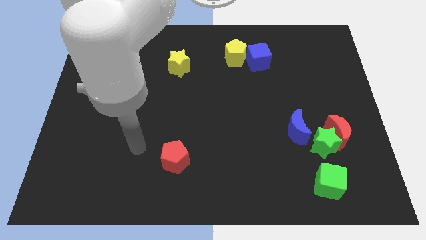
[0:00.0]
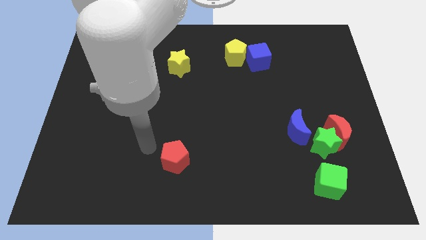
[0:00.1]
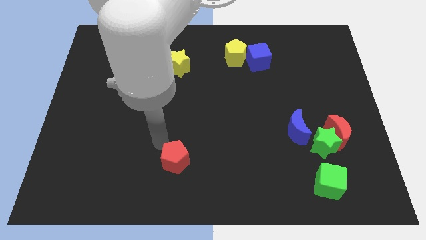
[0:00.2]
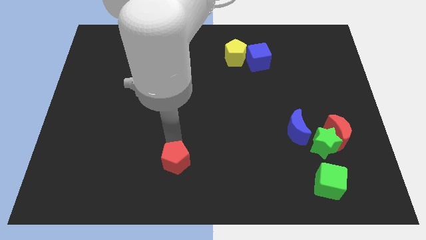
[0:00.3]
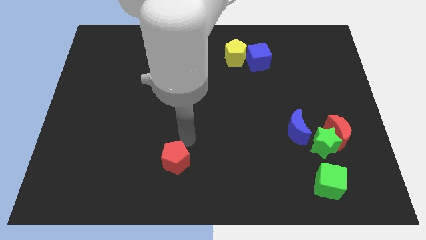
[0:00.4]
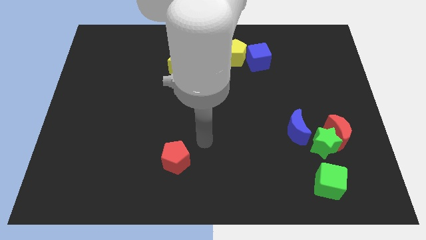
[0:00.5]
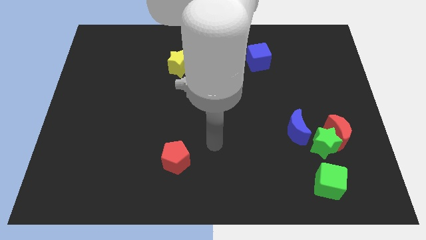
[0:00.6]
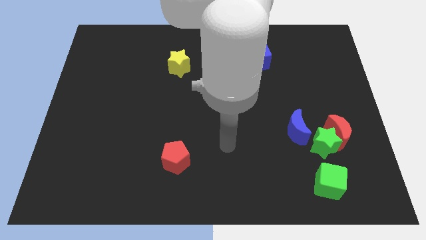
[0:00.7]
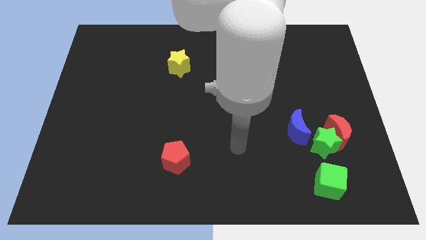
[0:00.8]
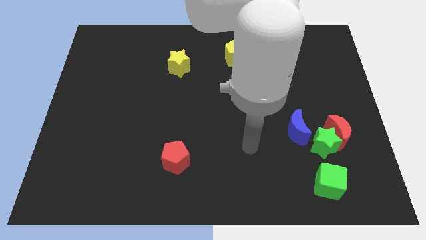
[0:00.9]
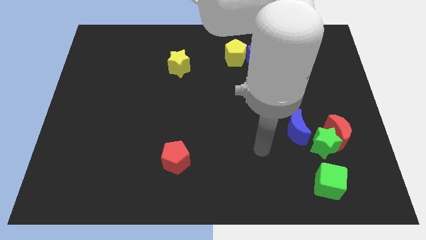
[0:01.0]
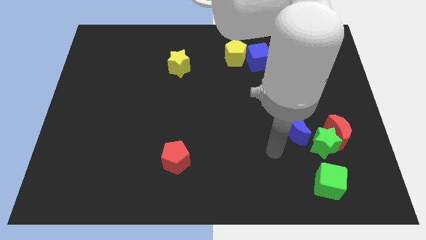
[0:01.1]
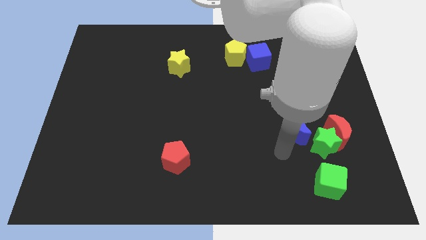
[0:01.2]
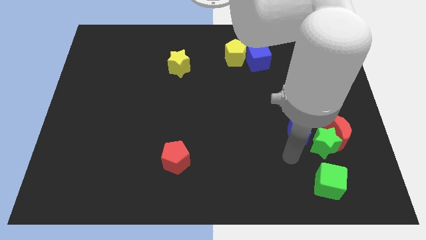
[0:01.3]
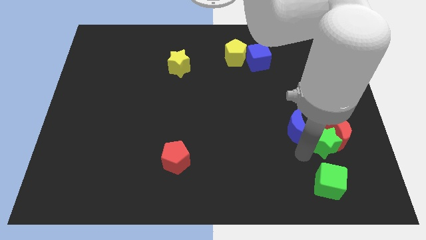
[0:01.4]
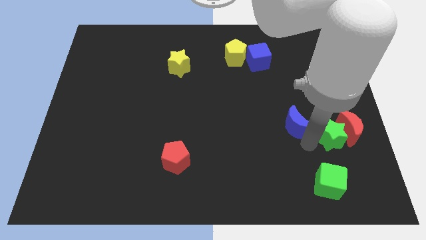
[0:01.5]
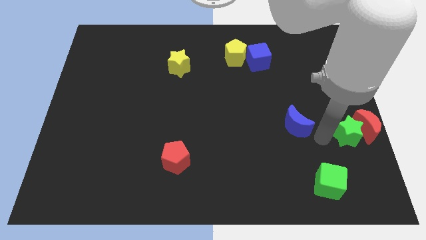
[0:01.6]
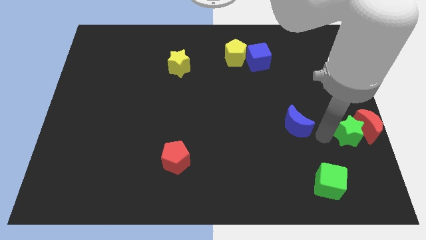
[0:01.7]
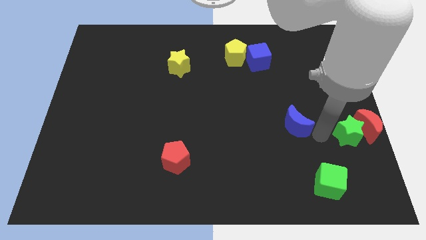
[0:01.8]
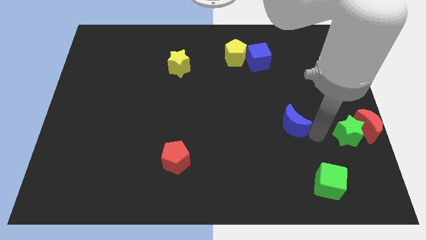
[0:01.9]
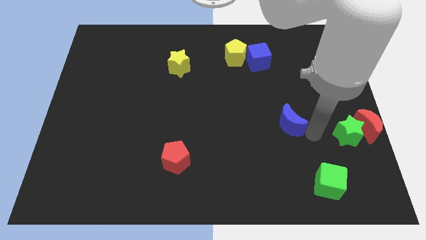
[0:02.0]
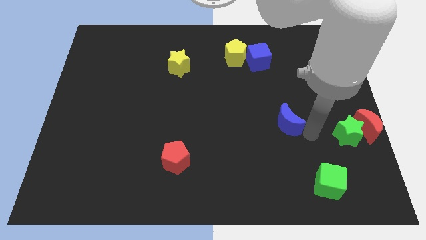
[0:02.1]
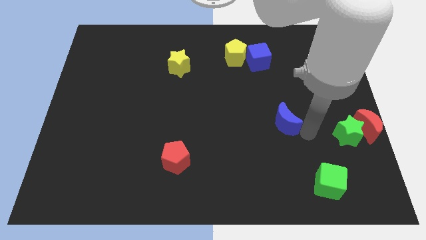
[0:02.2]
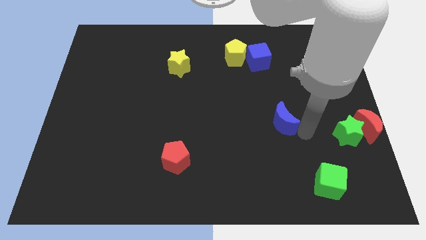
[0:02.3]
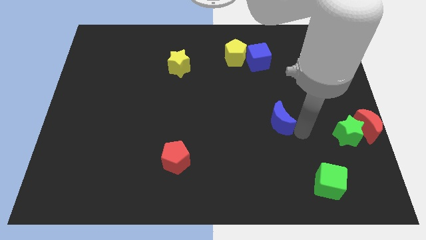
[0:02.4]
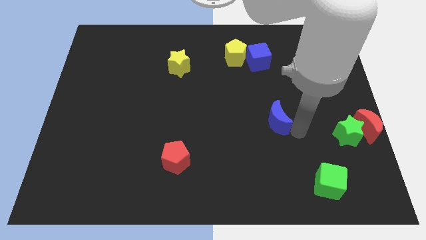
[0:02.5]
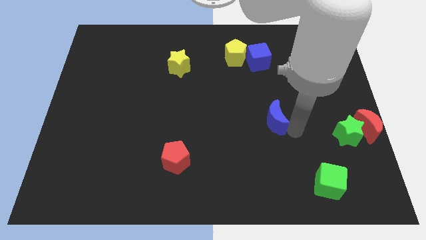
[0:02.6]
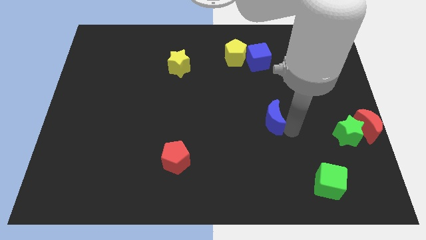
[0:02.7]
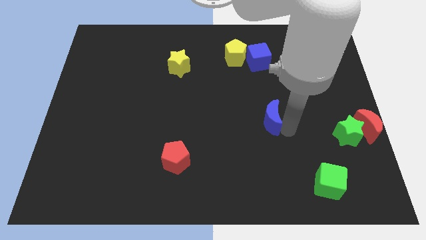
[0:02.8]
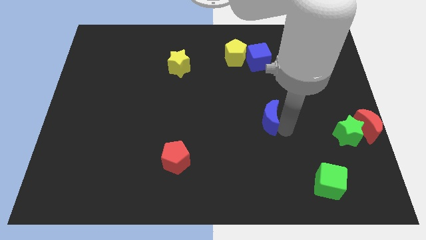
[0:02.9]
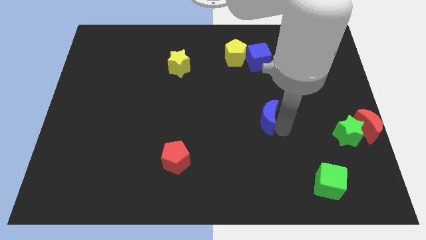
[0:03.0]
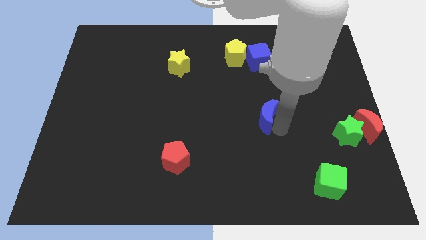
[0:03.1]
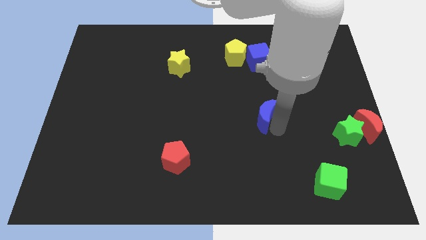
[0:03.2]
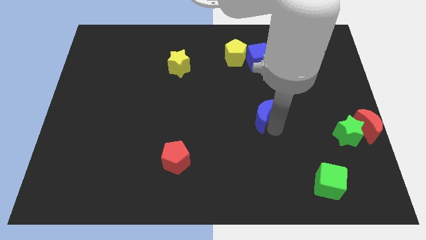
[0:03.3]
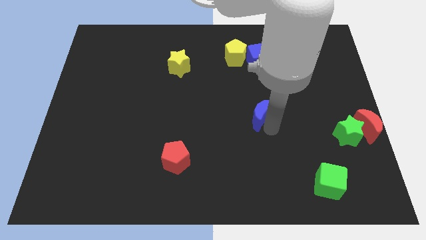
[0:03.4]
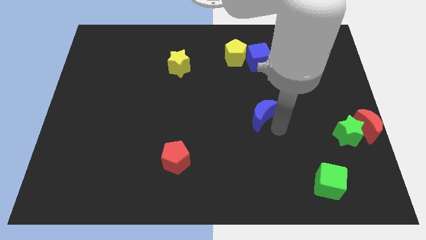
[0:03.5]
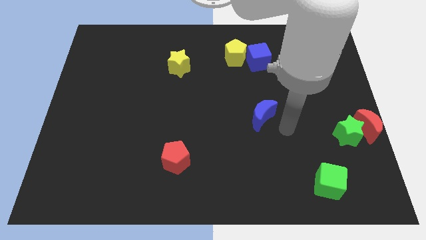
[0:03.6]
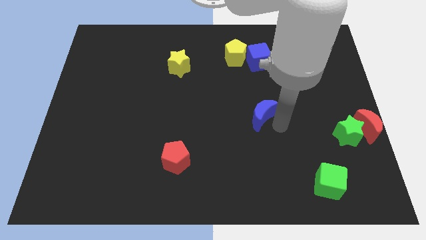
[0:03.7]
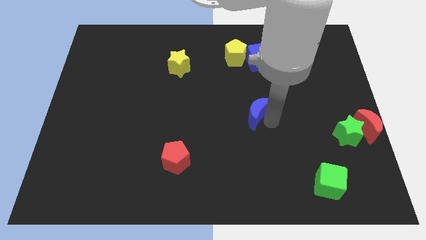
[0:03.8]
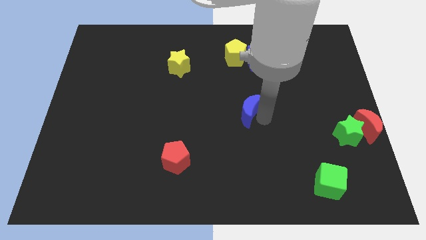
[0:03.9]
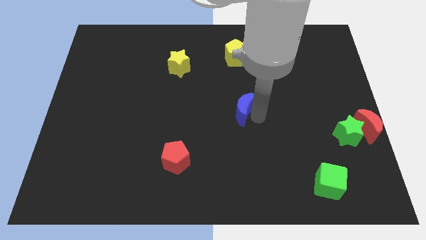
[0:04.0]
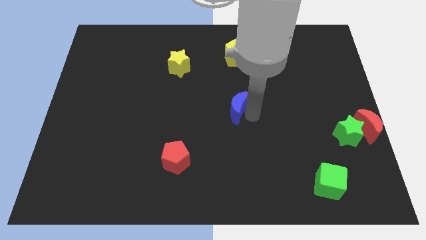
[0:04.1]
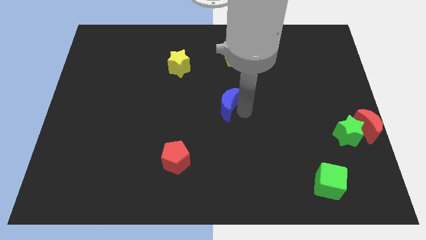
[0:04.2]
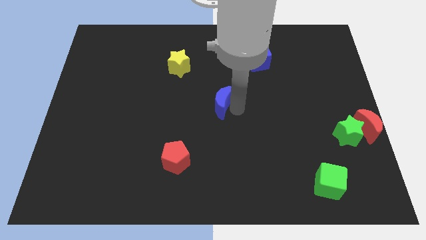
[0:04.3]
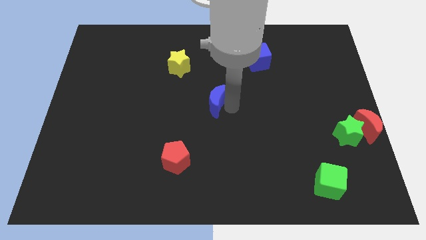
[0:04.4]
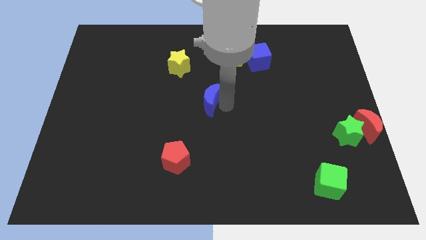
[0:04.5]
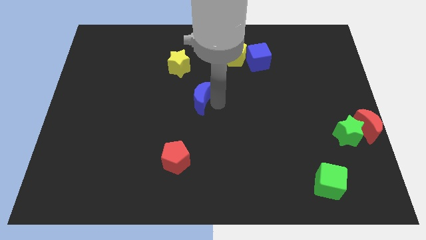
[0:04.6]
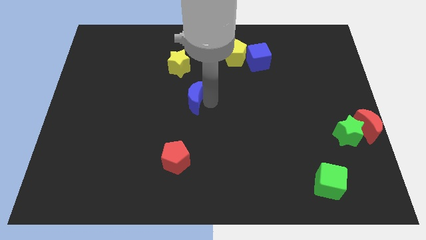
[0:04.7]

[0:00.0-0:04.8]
put the blue moon to the bottom side of the yellow star

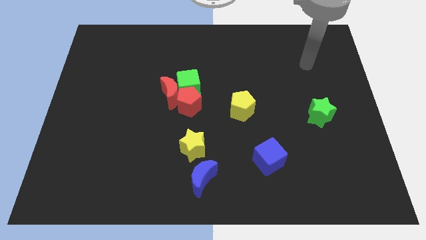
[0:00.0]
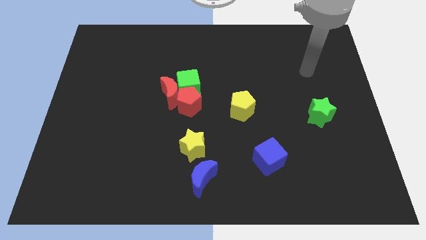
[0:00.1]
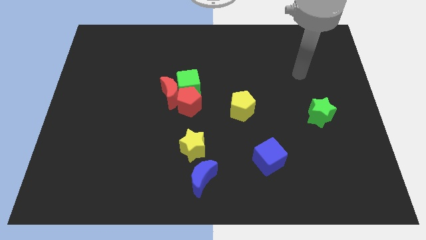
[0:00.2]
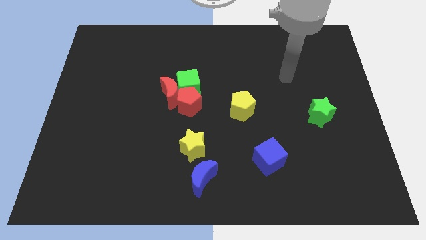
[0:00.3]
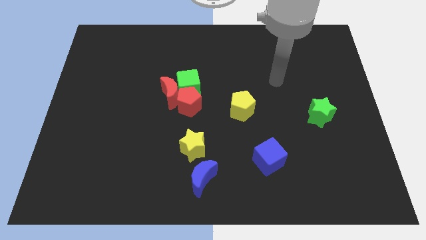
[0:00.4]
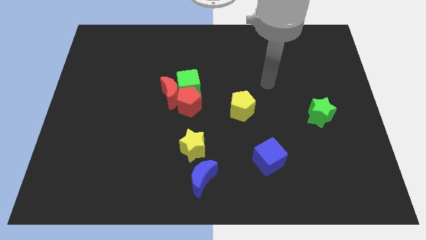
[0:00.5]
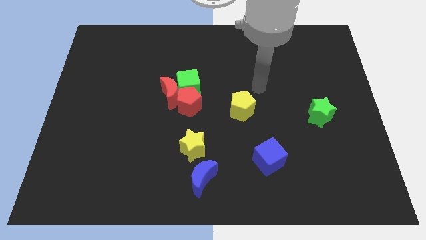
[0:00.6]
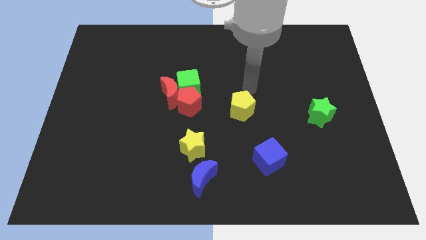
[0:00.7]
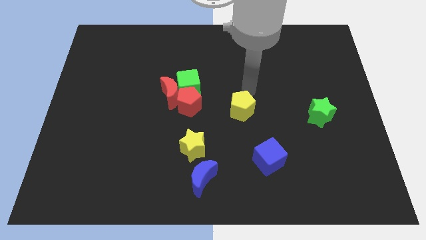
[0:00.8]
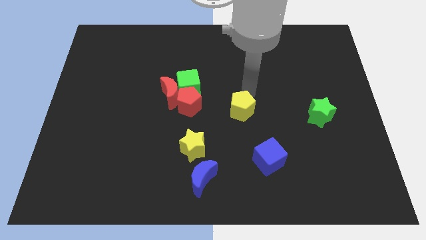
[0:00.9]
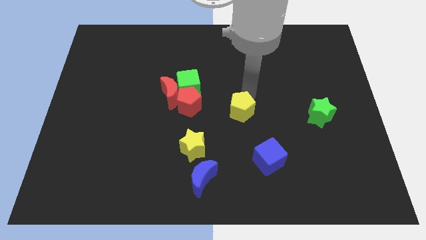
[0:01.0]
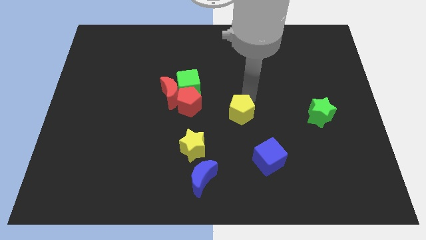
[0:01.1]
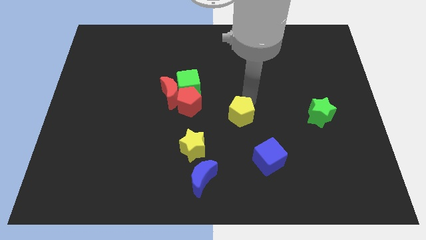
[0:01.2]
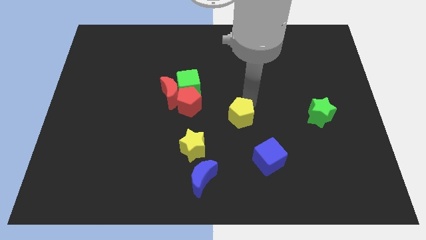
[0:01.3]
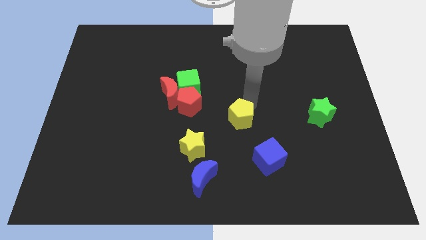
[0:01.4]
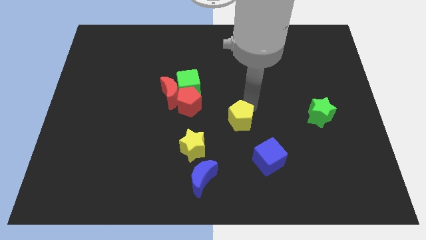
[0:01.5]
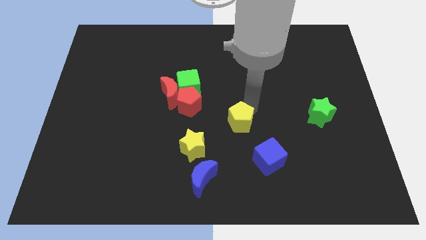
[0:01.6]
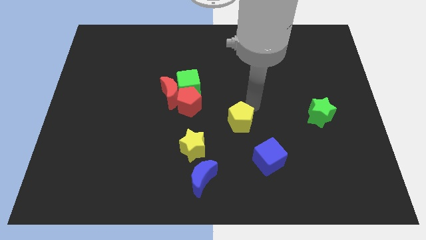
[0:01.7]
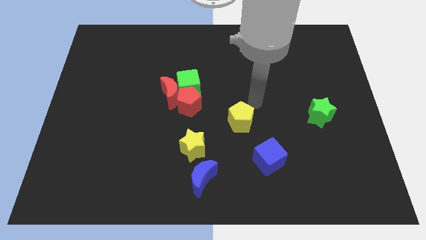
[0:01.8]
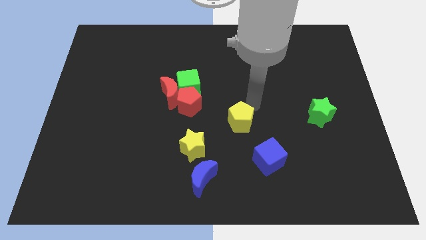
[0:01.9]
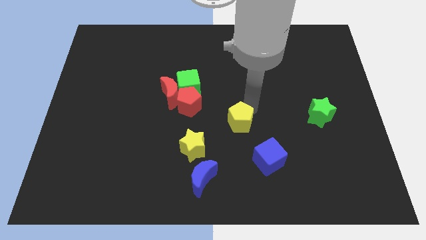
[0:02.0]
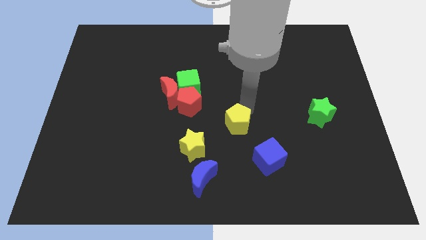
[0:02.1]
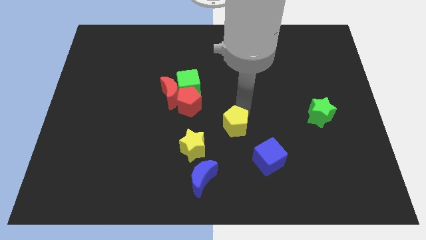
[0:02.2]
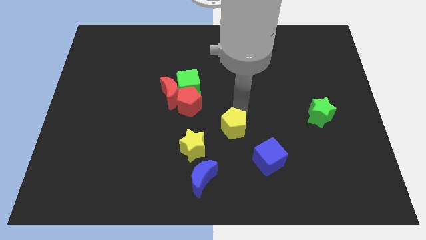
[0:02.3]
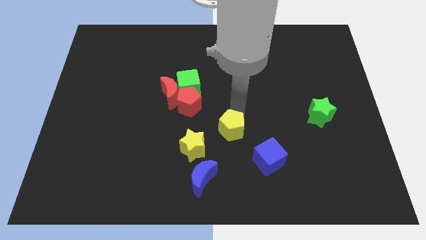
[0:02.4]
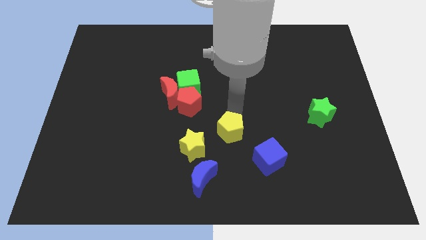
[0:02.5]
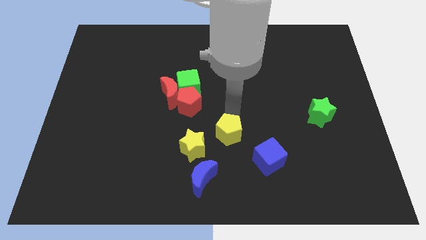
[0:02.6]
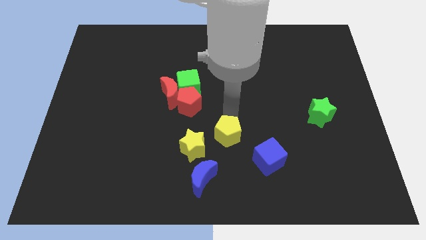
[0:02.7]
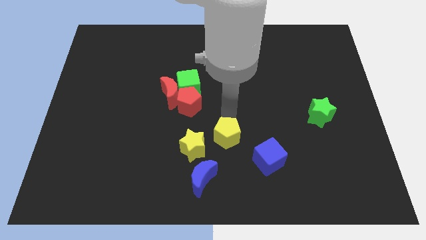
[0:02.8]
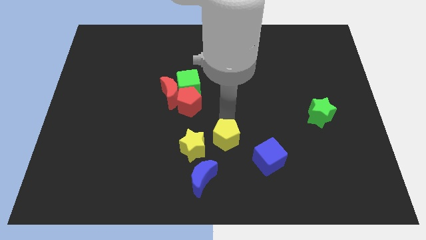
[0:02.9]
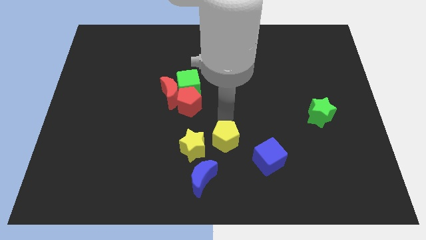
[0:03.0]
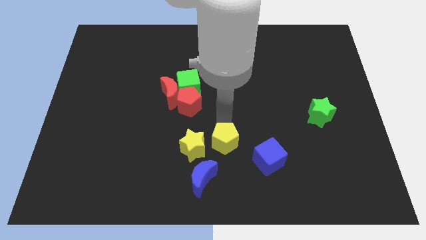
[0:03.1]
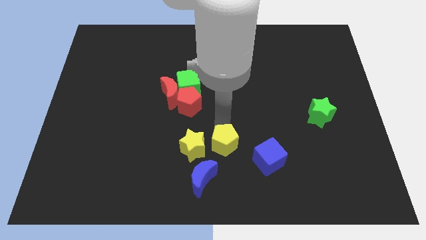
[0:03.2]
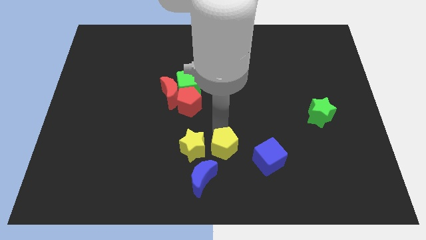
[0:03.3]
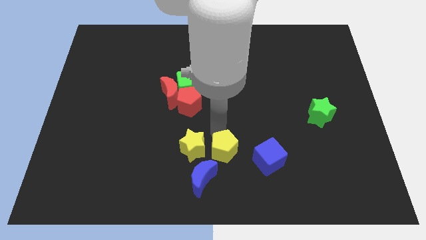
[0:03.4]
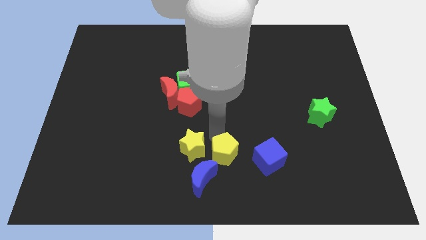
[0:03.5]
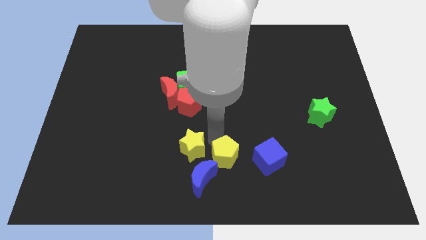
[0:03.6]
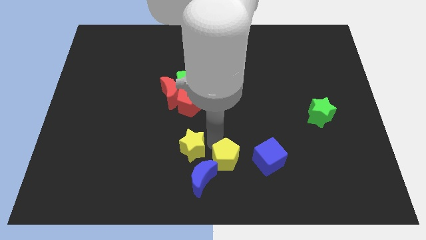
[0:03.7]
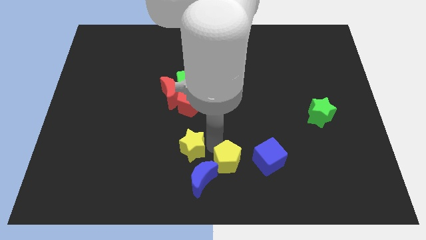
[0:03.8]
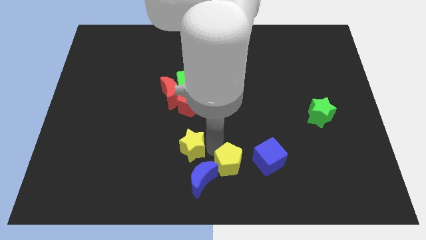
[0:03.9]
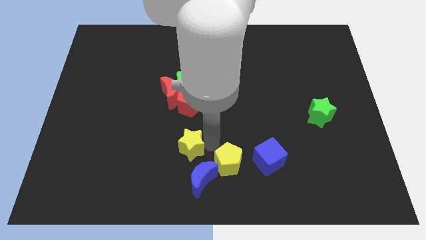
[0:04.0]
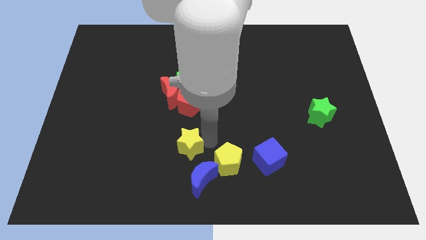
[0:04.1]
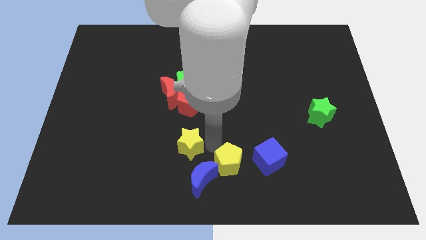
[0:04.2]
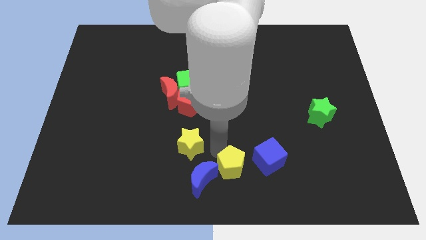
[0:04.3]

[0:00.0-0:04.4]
move the yellow pentagon to the bottom left side of the blue cube
